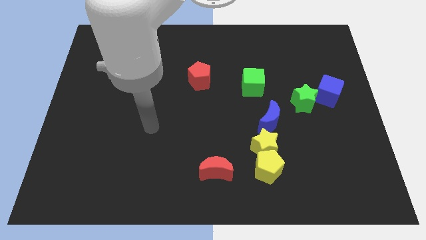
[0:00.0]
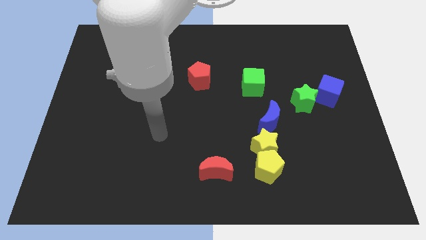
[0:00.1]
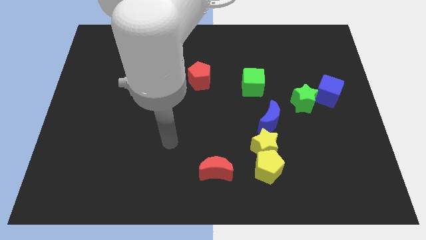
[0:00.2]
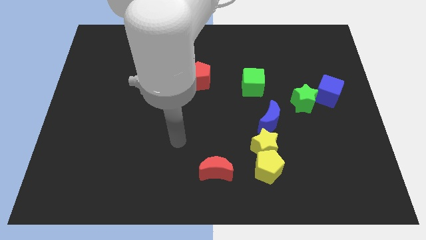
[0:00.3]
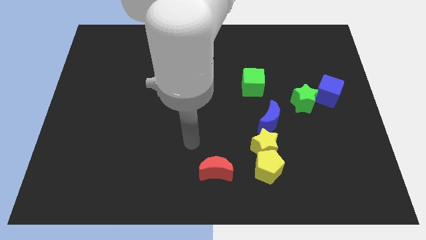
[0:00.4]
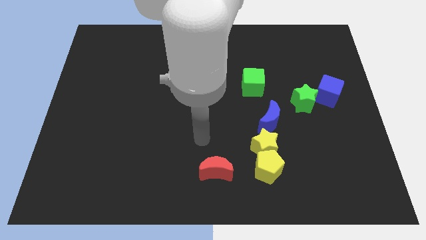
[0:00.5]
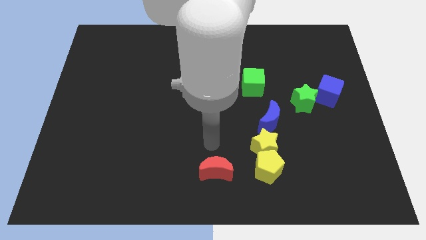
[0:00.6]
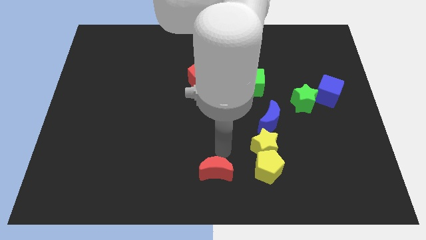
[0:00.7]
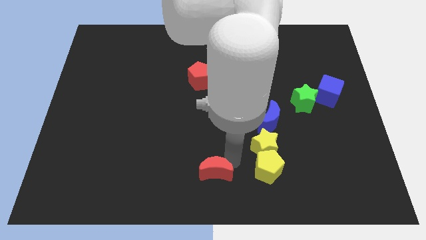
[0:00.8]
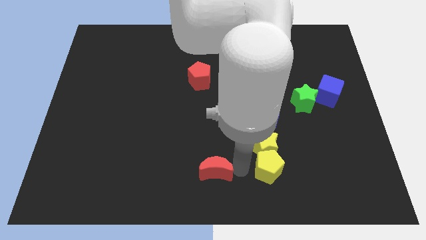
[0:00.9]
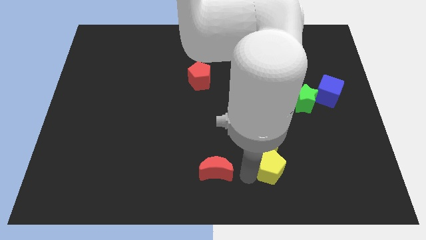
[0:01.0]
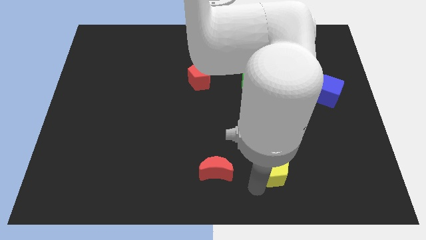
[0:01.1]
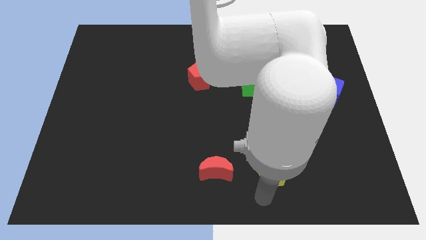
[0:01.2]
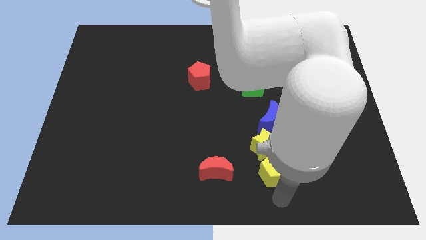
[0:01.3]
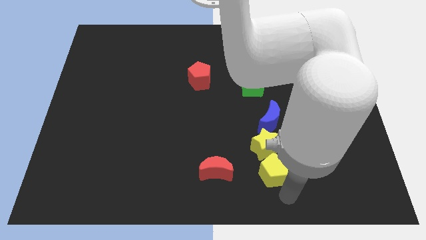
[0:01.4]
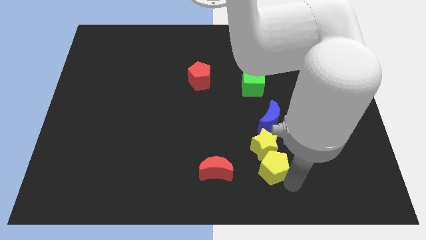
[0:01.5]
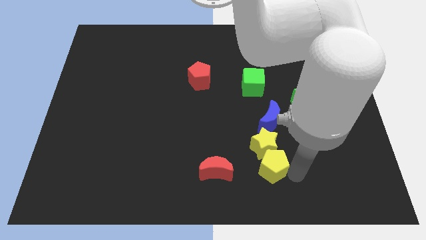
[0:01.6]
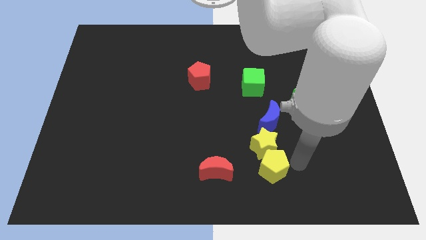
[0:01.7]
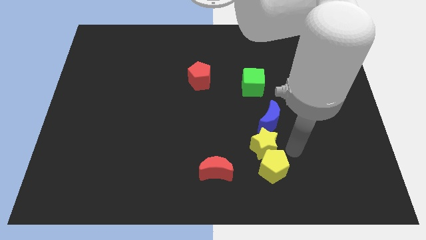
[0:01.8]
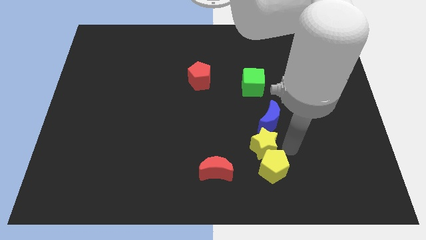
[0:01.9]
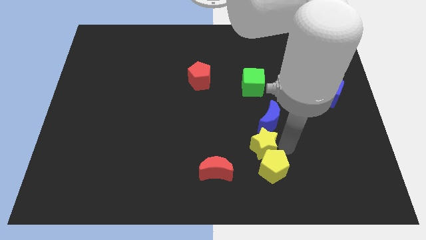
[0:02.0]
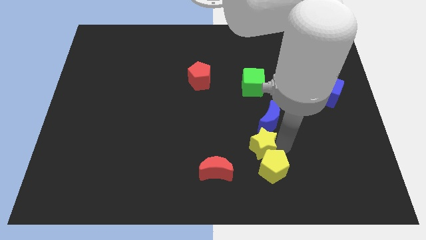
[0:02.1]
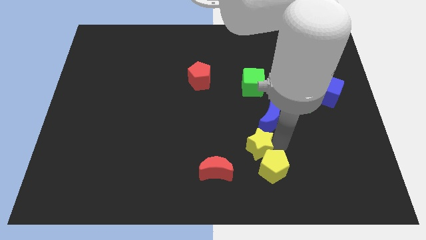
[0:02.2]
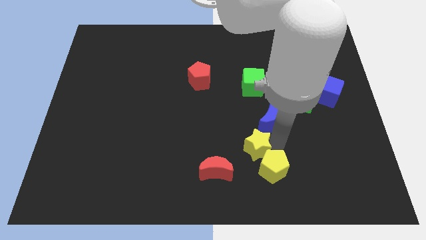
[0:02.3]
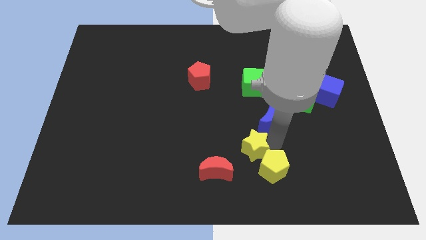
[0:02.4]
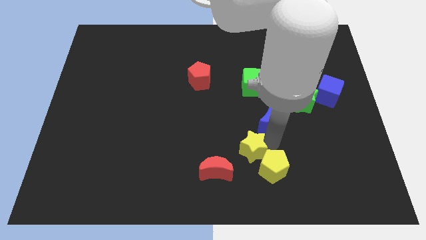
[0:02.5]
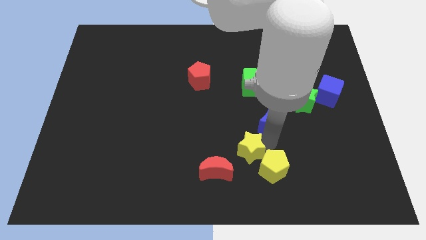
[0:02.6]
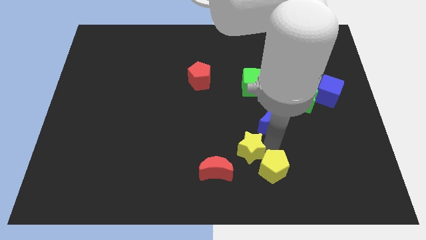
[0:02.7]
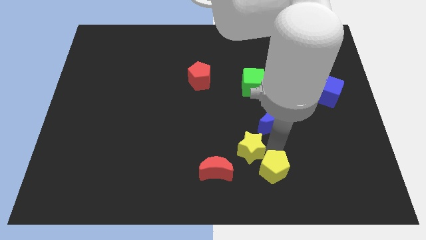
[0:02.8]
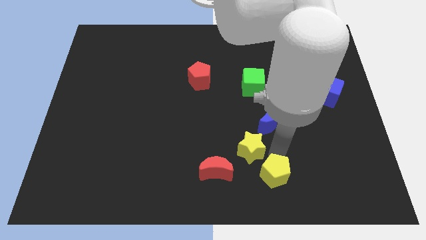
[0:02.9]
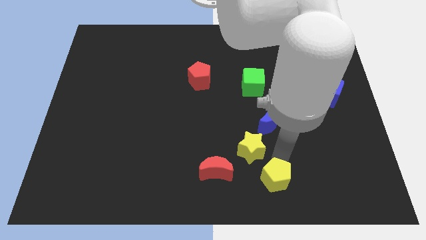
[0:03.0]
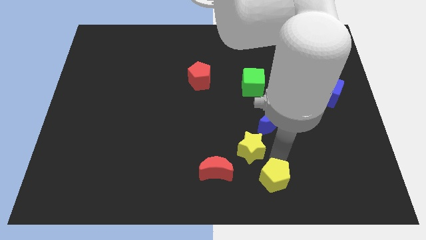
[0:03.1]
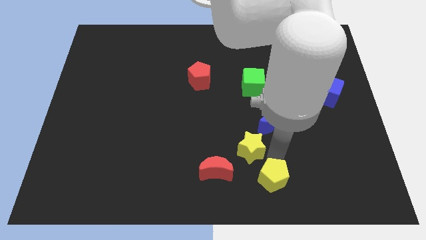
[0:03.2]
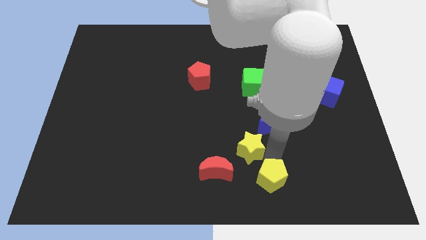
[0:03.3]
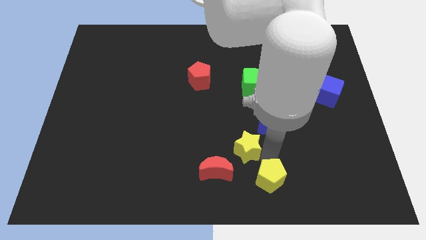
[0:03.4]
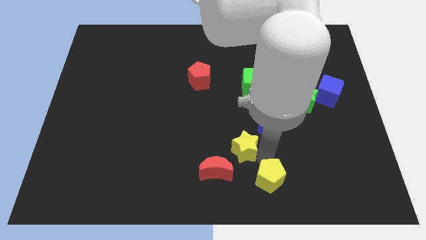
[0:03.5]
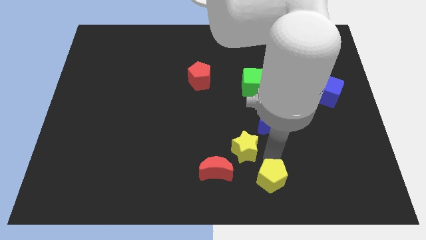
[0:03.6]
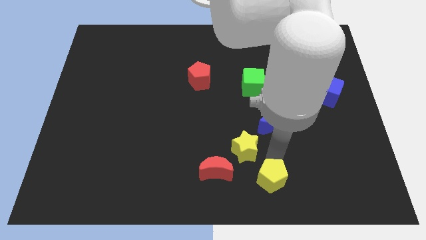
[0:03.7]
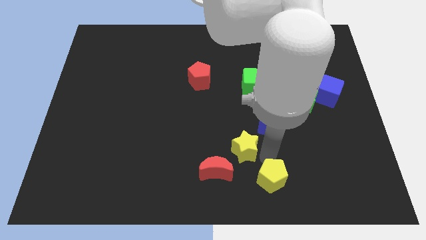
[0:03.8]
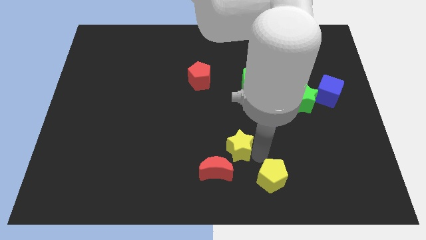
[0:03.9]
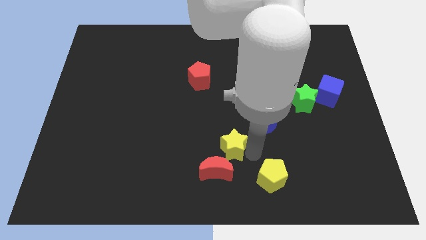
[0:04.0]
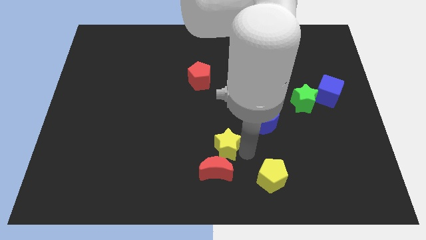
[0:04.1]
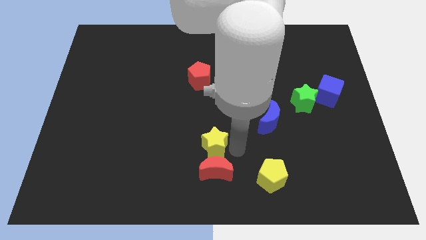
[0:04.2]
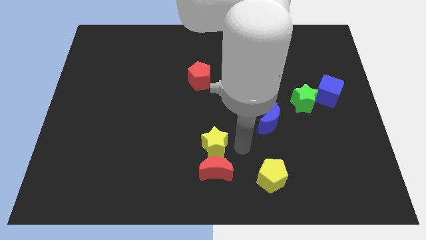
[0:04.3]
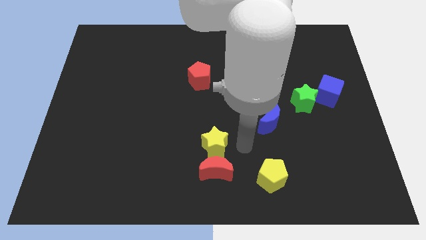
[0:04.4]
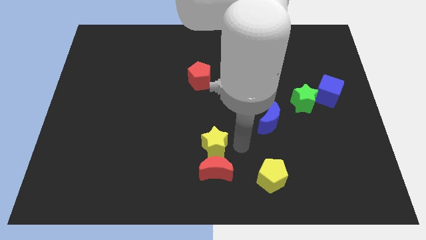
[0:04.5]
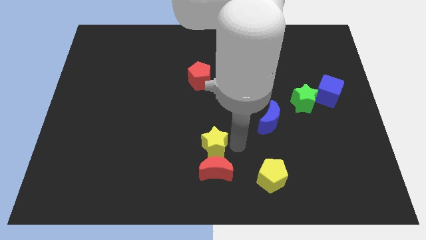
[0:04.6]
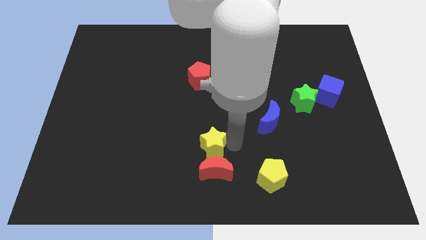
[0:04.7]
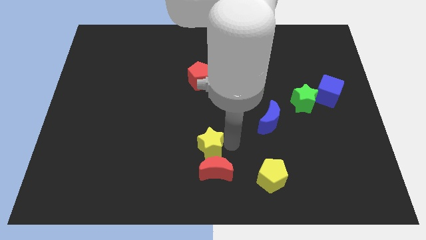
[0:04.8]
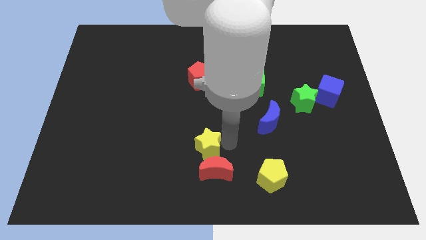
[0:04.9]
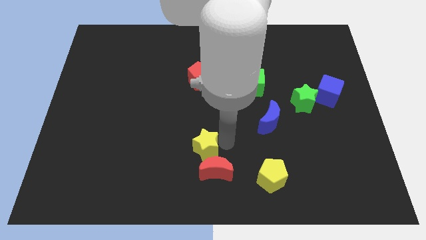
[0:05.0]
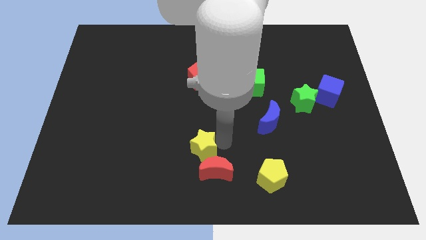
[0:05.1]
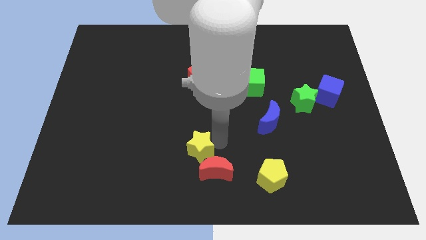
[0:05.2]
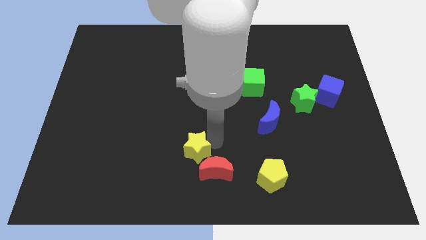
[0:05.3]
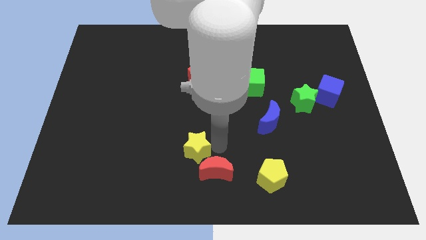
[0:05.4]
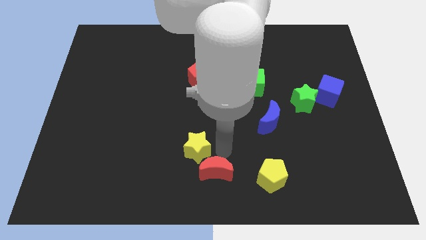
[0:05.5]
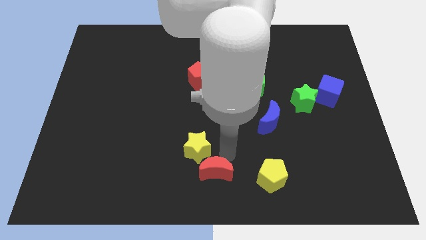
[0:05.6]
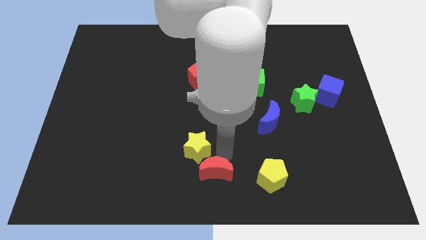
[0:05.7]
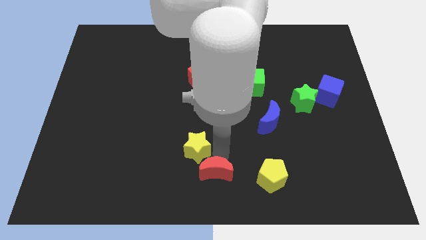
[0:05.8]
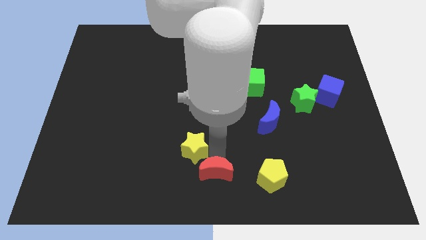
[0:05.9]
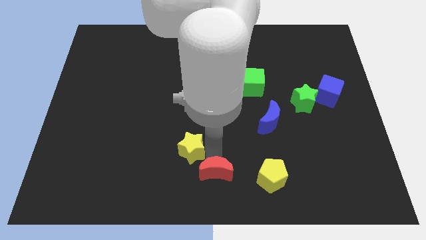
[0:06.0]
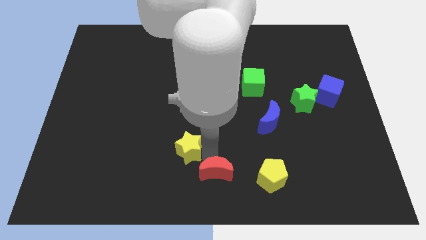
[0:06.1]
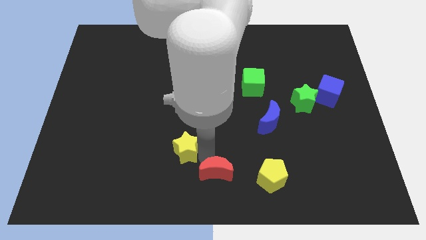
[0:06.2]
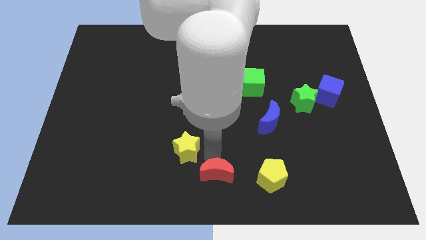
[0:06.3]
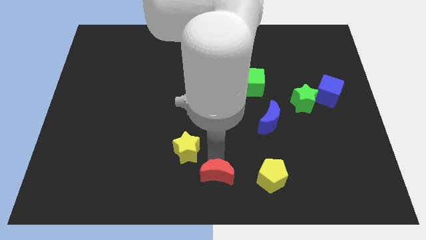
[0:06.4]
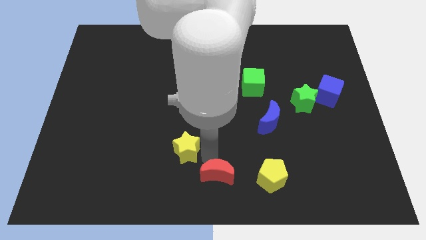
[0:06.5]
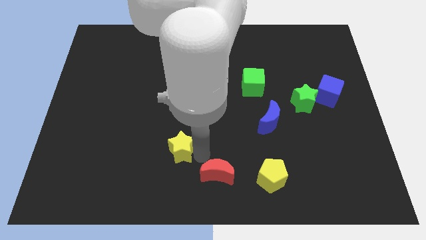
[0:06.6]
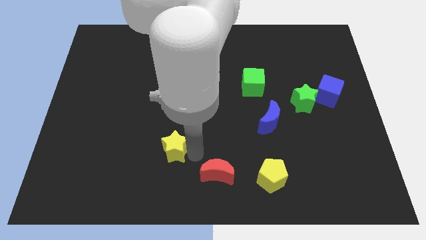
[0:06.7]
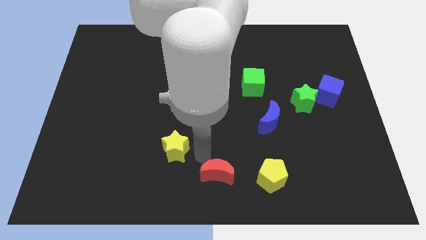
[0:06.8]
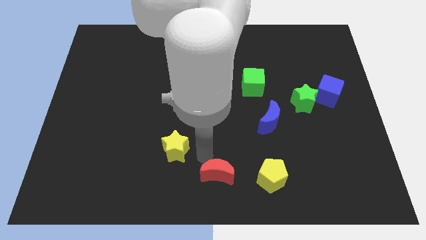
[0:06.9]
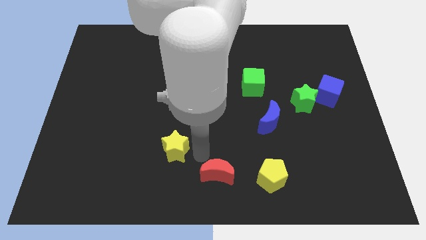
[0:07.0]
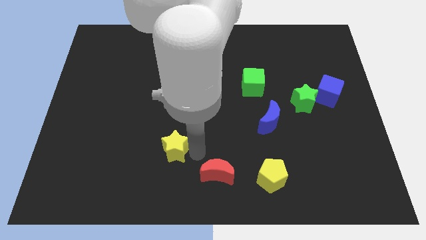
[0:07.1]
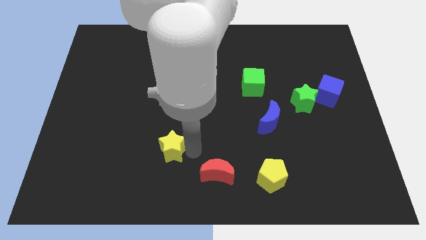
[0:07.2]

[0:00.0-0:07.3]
move the yellow star to the left

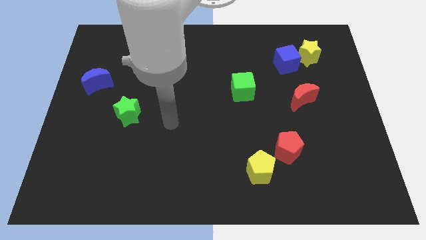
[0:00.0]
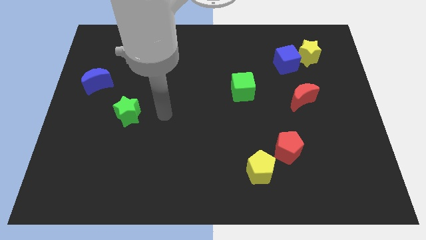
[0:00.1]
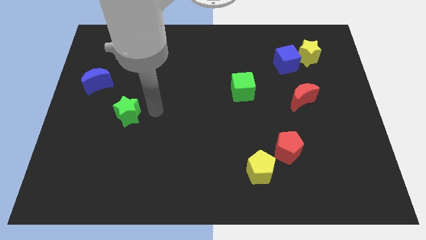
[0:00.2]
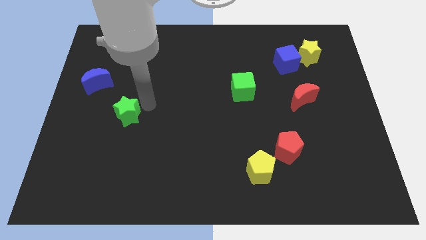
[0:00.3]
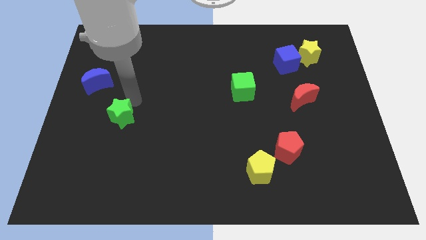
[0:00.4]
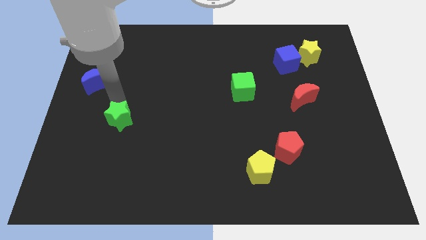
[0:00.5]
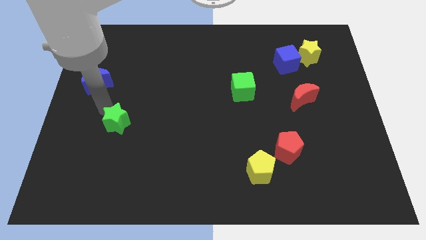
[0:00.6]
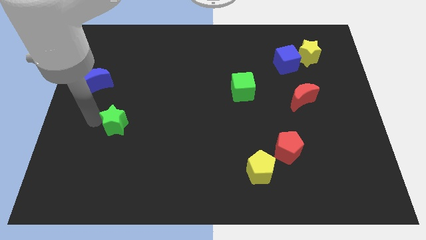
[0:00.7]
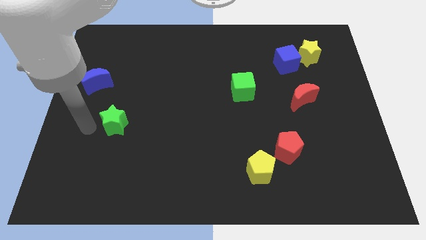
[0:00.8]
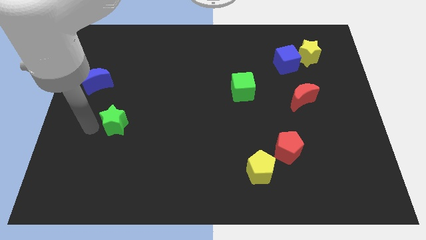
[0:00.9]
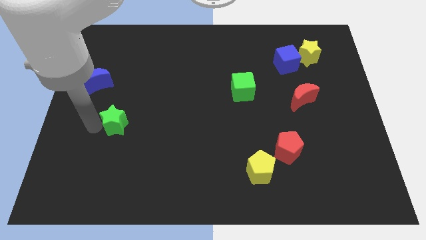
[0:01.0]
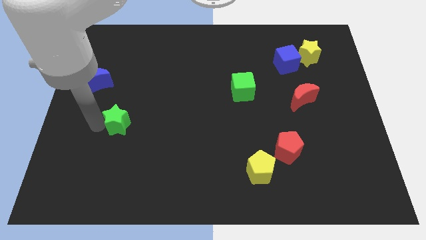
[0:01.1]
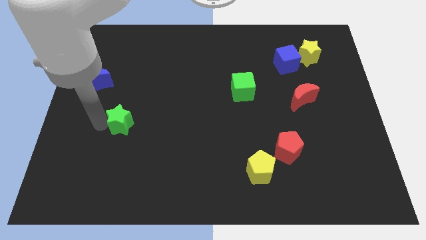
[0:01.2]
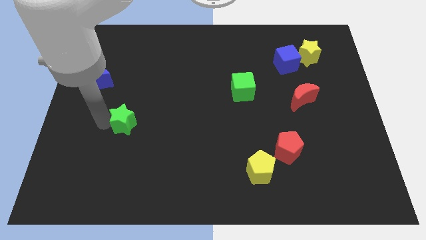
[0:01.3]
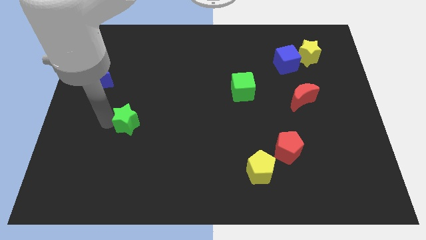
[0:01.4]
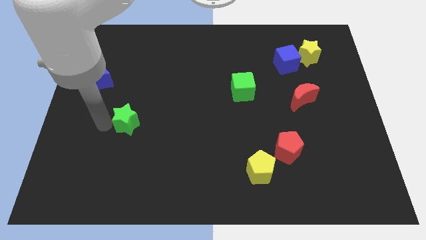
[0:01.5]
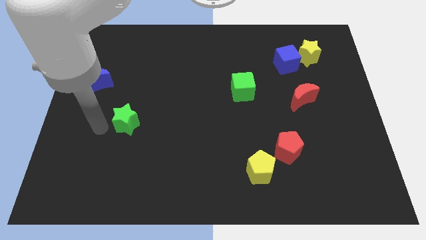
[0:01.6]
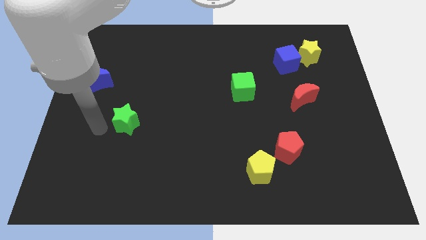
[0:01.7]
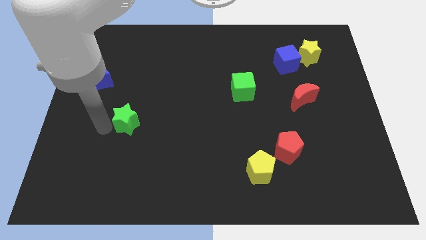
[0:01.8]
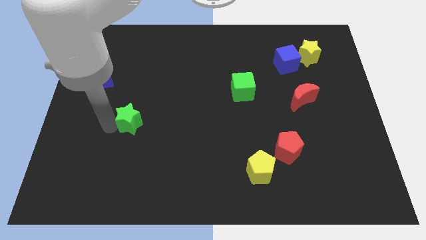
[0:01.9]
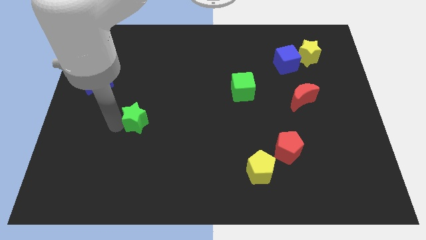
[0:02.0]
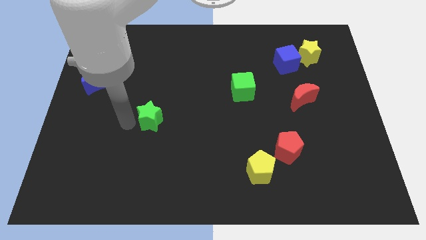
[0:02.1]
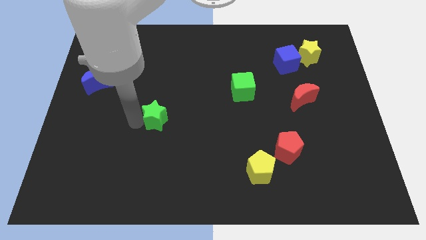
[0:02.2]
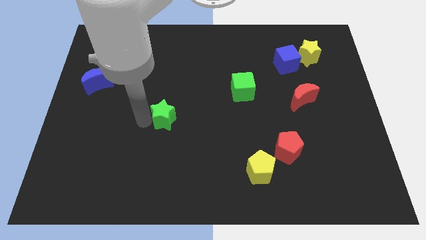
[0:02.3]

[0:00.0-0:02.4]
slightly push the green star right
